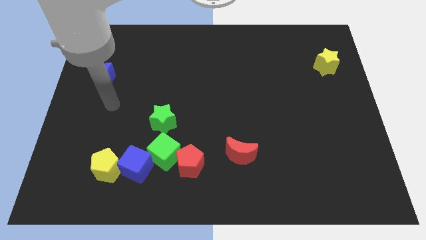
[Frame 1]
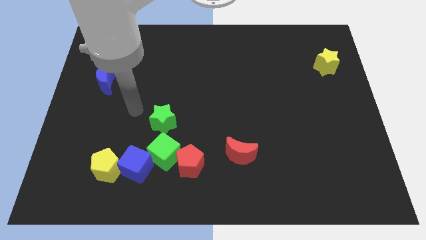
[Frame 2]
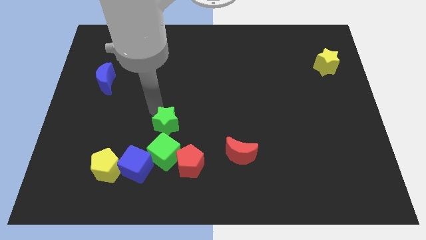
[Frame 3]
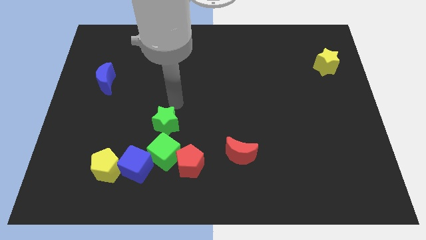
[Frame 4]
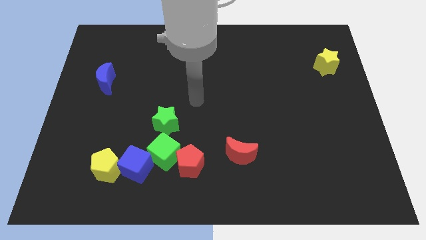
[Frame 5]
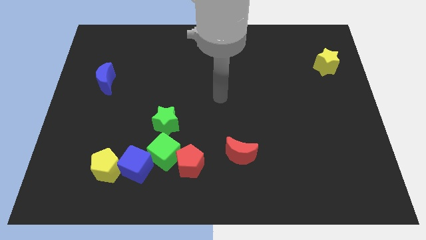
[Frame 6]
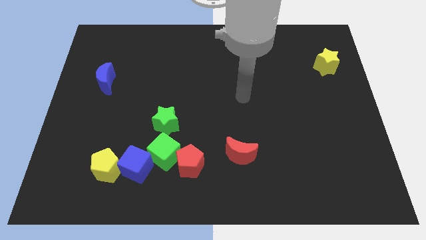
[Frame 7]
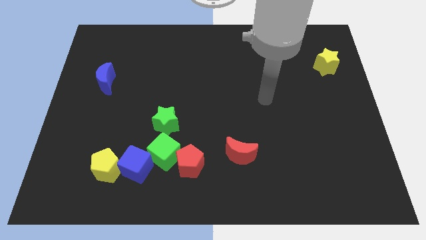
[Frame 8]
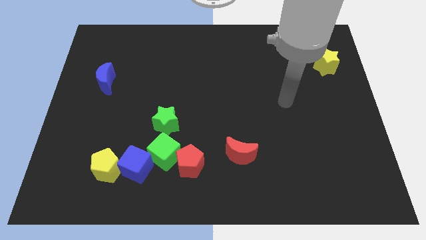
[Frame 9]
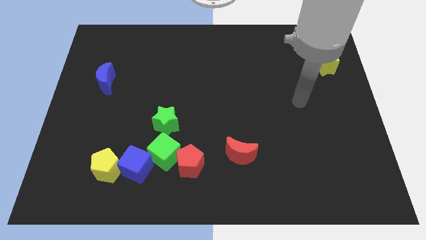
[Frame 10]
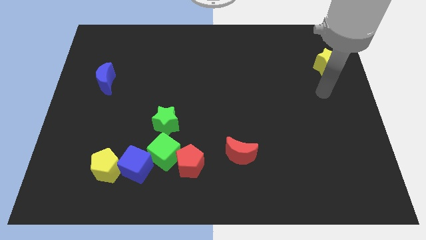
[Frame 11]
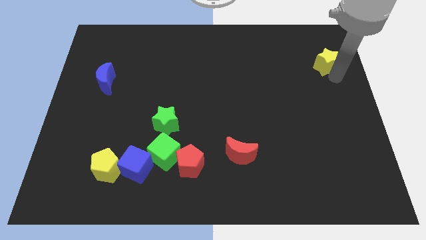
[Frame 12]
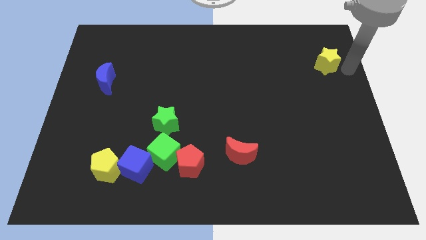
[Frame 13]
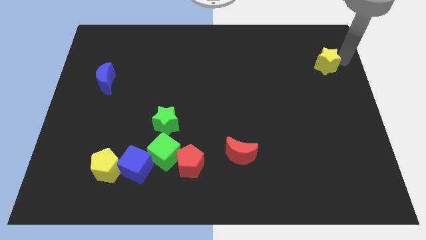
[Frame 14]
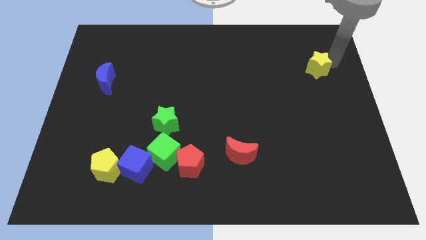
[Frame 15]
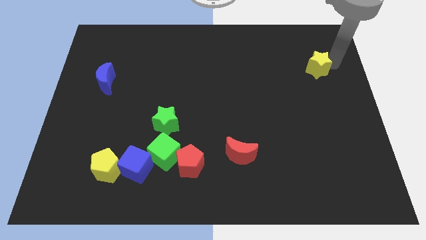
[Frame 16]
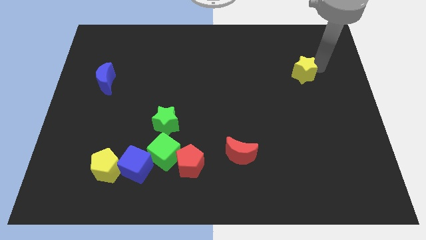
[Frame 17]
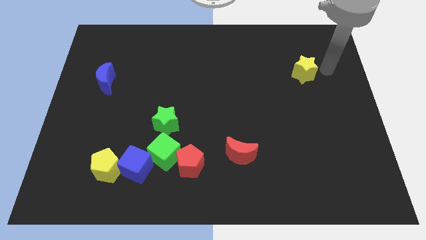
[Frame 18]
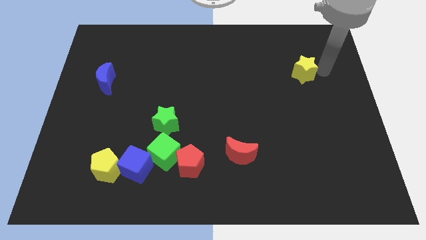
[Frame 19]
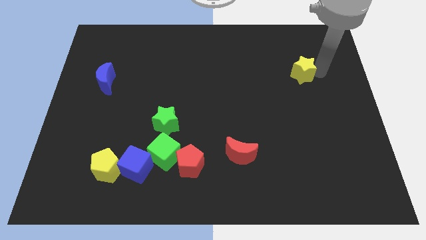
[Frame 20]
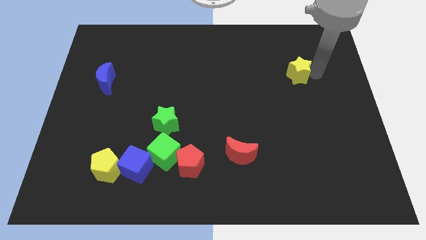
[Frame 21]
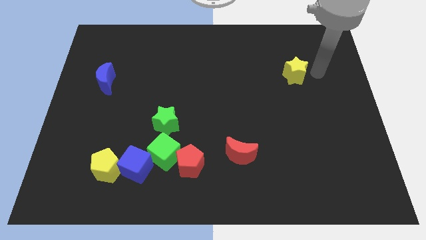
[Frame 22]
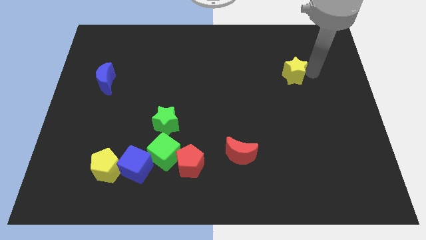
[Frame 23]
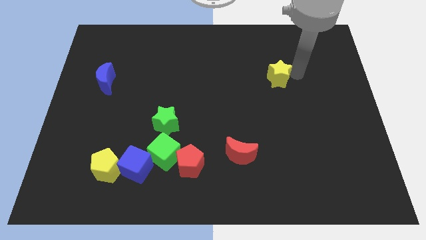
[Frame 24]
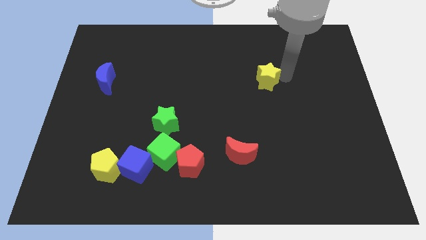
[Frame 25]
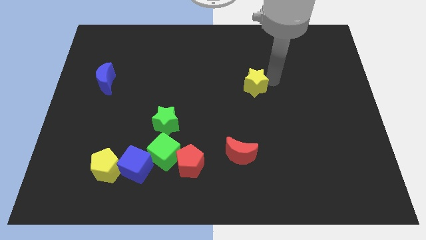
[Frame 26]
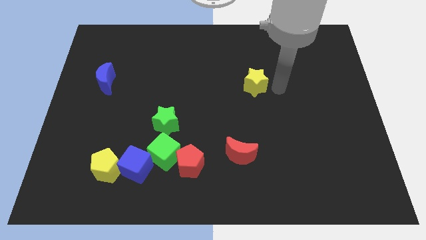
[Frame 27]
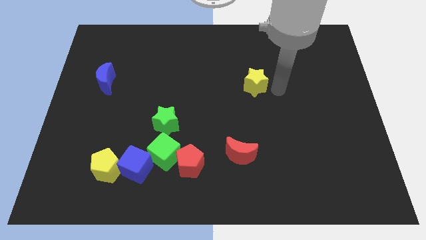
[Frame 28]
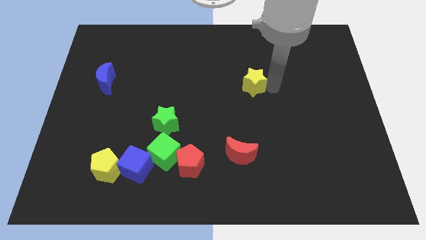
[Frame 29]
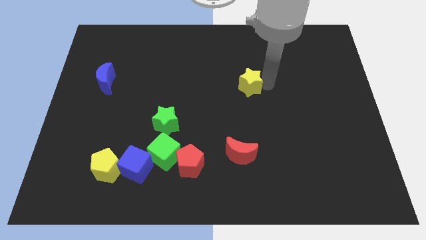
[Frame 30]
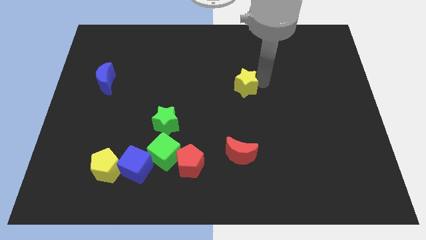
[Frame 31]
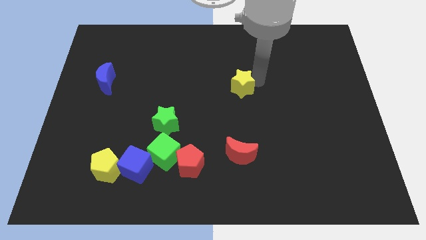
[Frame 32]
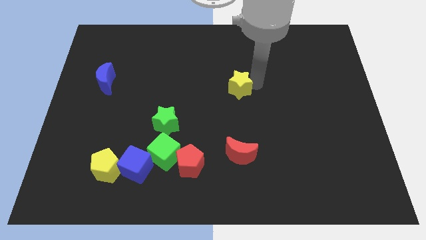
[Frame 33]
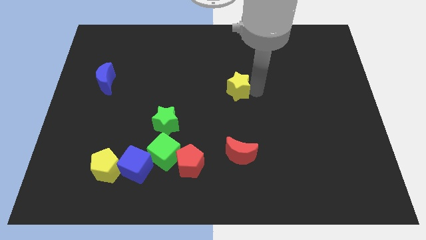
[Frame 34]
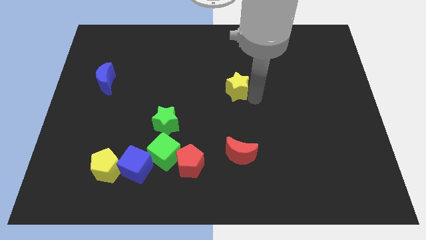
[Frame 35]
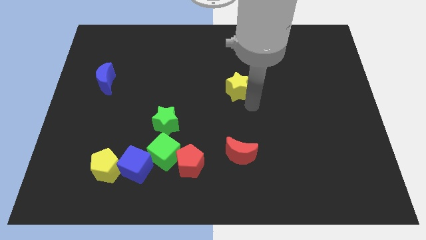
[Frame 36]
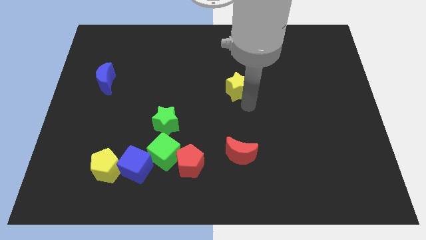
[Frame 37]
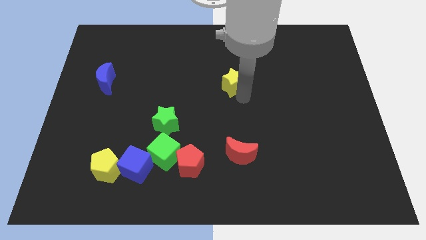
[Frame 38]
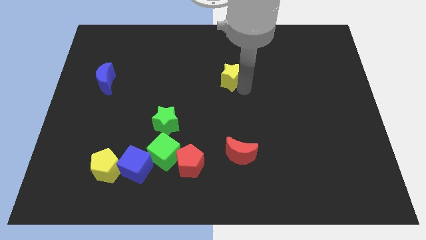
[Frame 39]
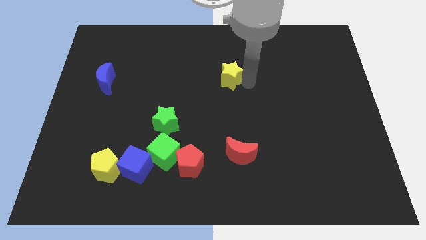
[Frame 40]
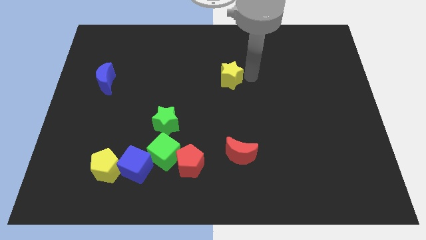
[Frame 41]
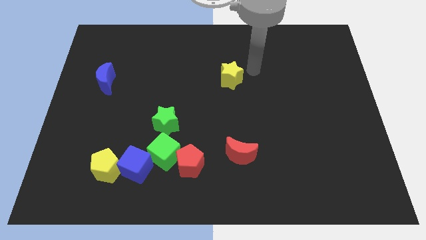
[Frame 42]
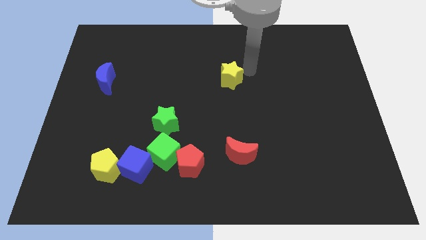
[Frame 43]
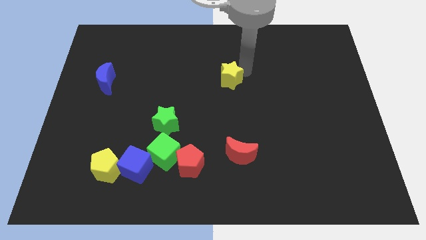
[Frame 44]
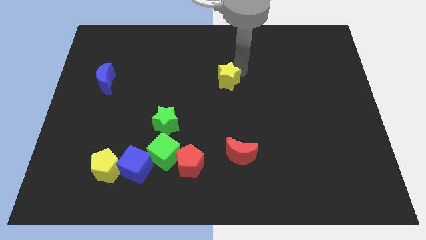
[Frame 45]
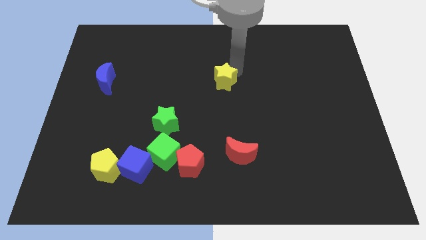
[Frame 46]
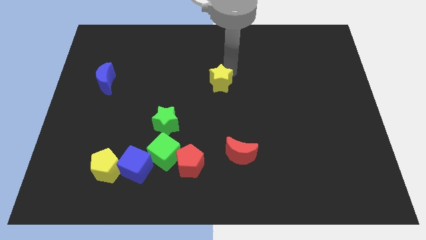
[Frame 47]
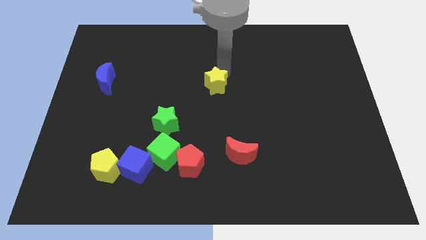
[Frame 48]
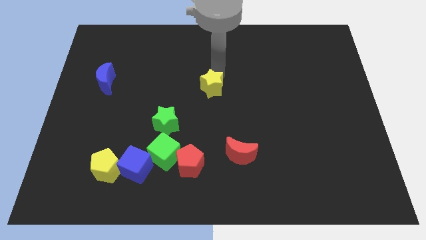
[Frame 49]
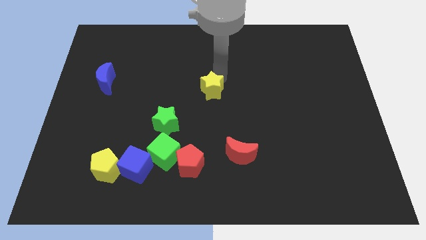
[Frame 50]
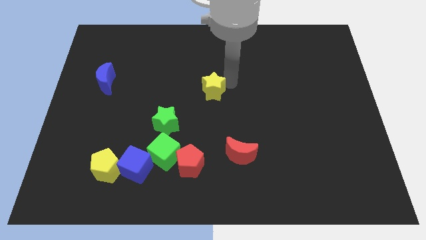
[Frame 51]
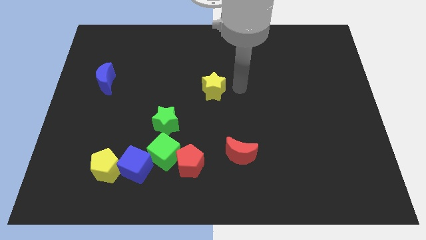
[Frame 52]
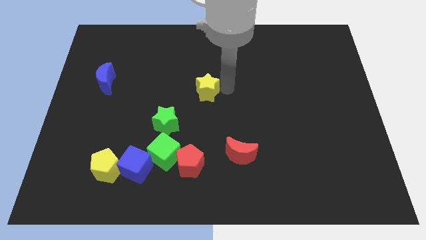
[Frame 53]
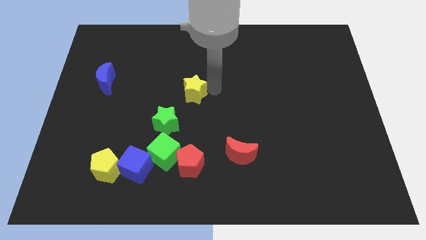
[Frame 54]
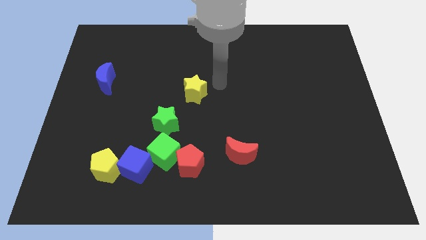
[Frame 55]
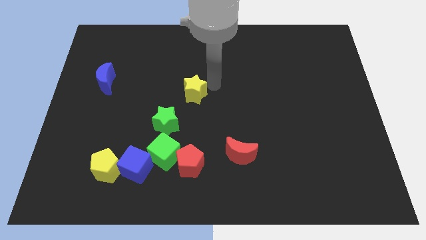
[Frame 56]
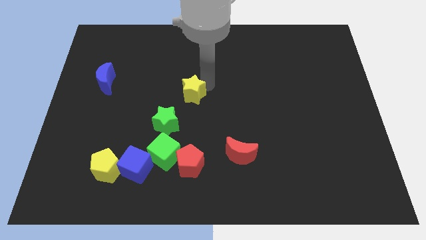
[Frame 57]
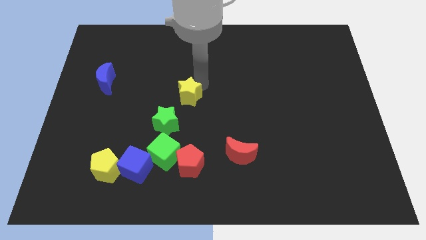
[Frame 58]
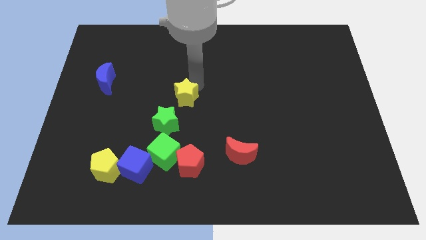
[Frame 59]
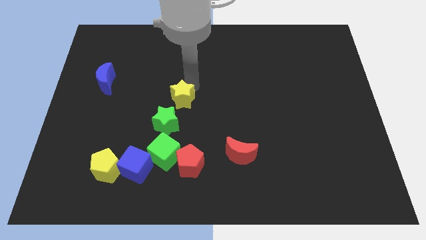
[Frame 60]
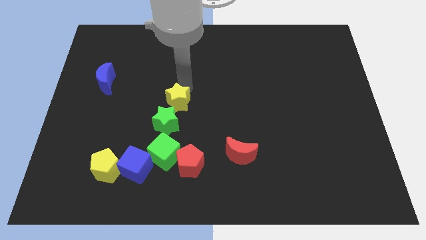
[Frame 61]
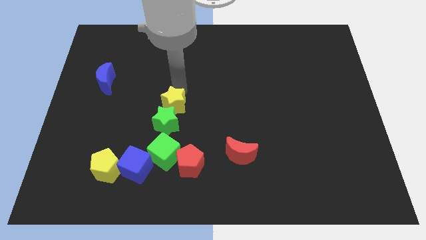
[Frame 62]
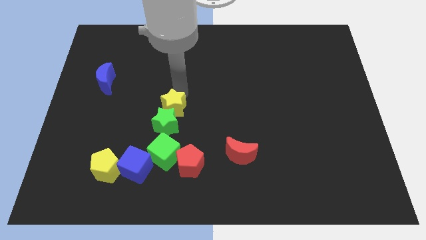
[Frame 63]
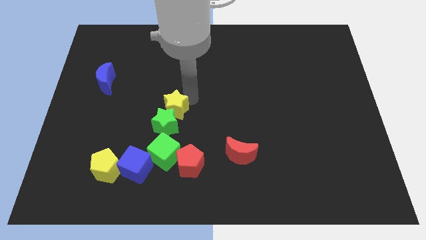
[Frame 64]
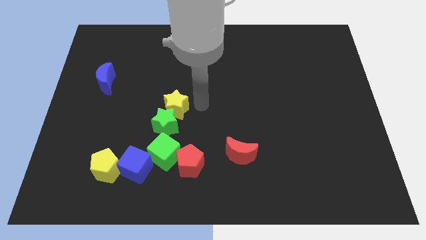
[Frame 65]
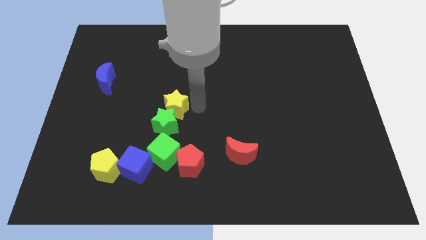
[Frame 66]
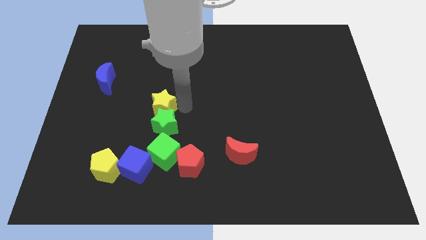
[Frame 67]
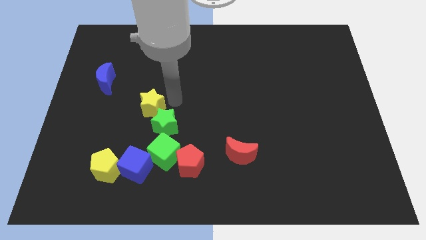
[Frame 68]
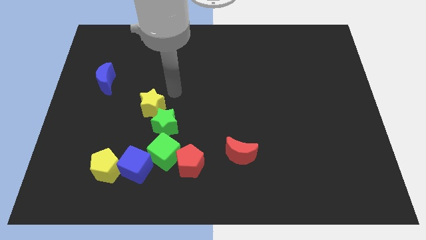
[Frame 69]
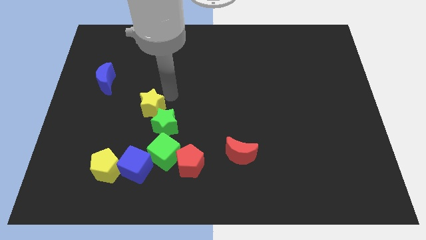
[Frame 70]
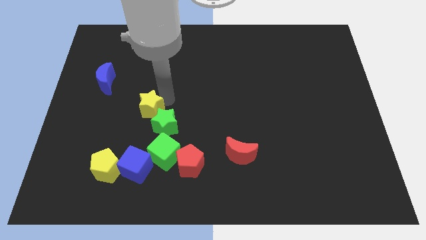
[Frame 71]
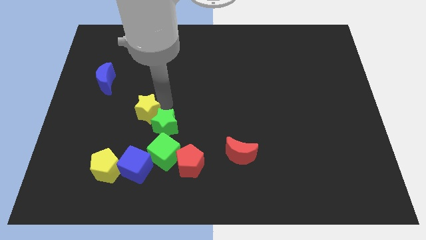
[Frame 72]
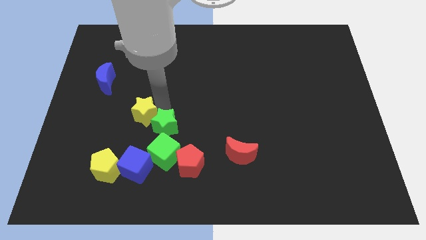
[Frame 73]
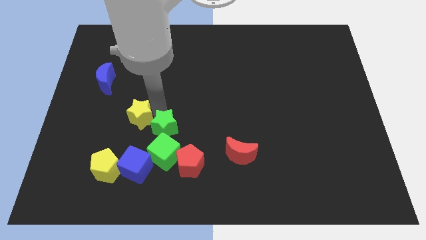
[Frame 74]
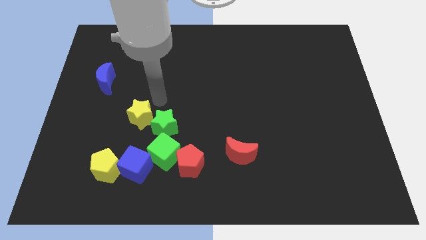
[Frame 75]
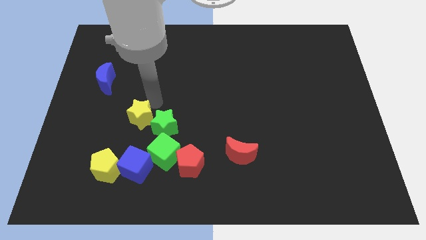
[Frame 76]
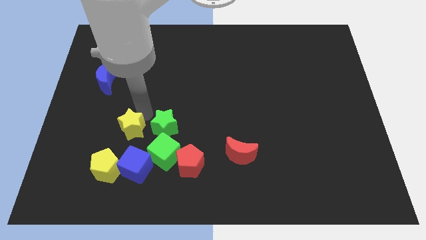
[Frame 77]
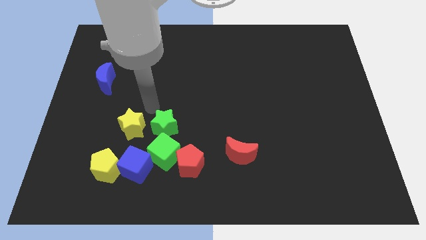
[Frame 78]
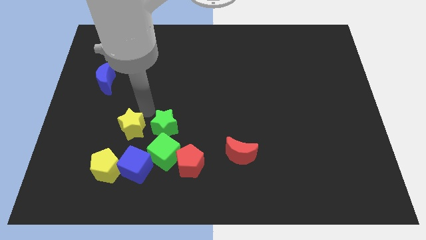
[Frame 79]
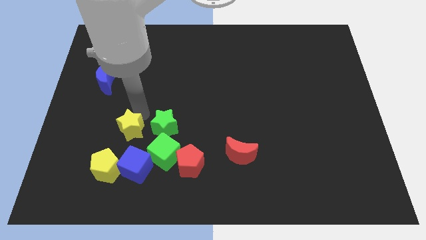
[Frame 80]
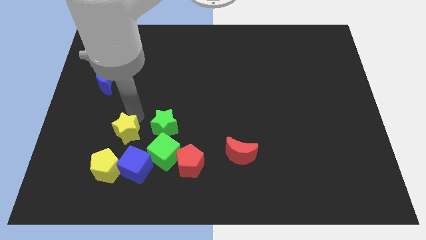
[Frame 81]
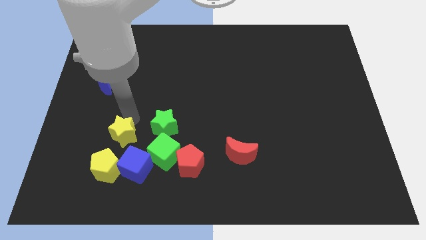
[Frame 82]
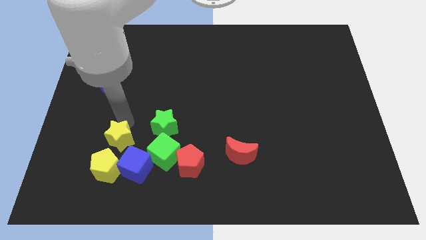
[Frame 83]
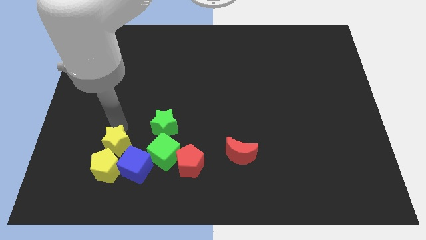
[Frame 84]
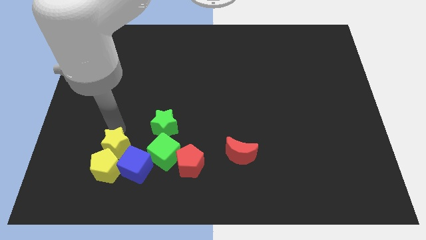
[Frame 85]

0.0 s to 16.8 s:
move the yellow star next to the yellow pentagon
